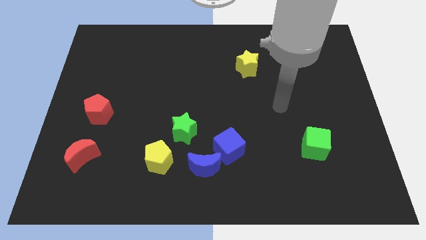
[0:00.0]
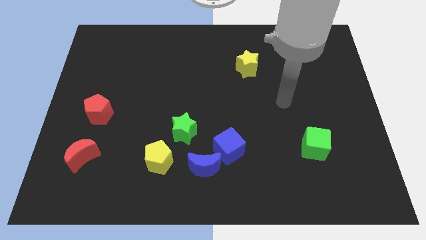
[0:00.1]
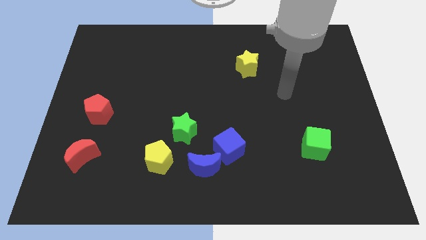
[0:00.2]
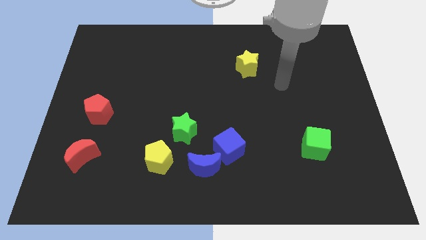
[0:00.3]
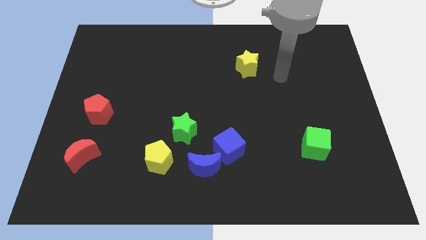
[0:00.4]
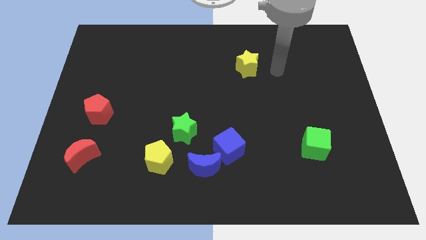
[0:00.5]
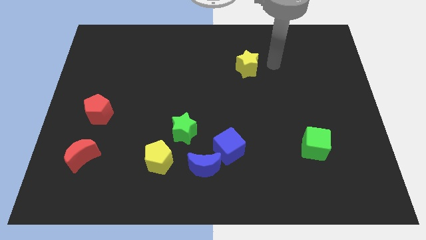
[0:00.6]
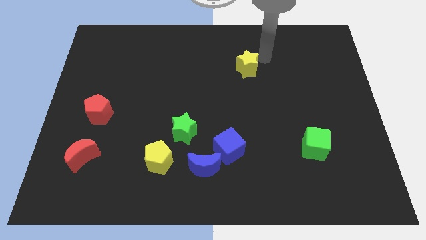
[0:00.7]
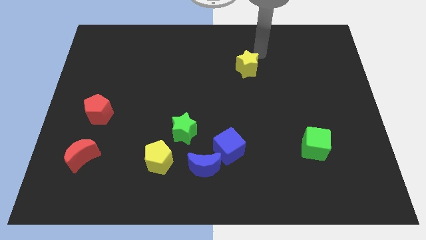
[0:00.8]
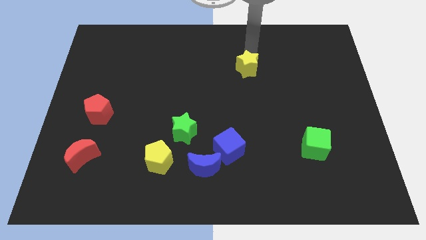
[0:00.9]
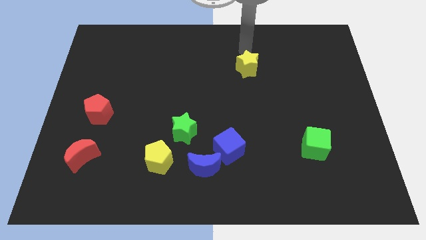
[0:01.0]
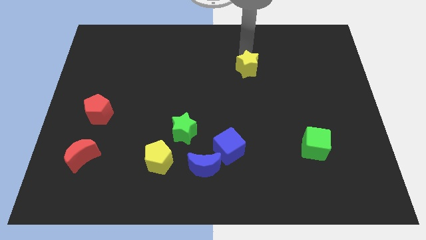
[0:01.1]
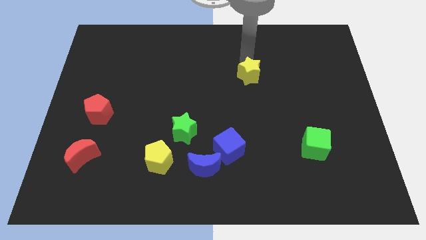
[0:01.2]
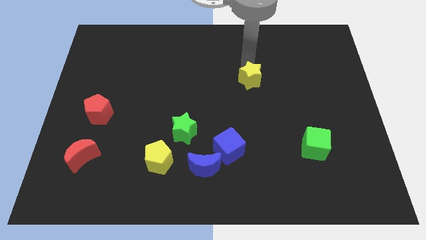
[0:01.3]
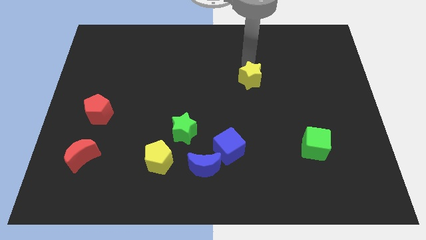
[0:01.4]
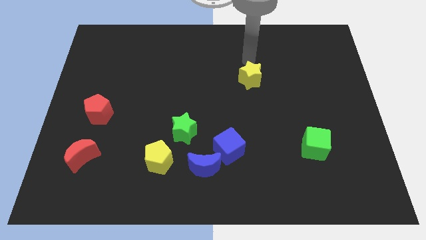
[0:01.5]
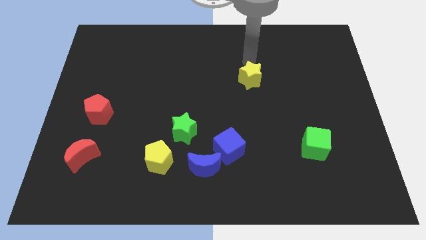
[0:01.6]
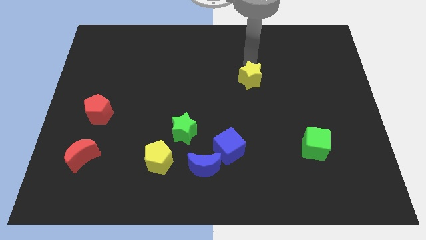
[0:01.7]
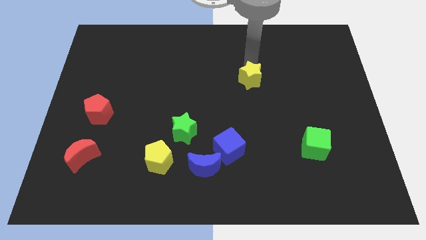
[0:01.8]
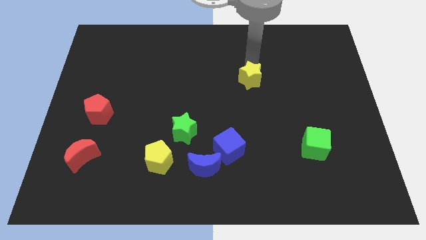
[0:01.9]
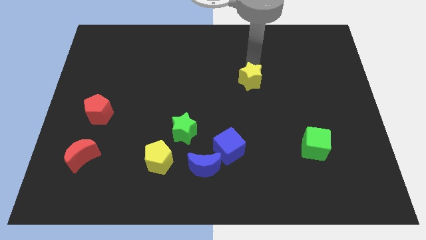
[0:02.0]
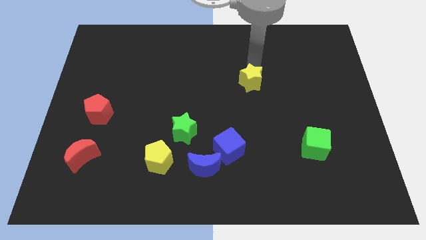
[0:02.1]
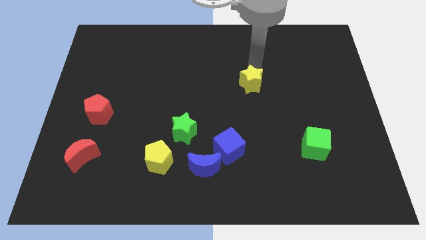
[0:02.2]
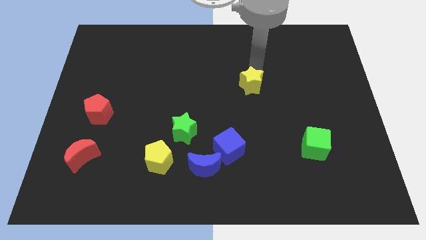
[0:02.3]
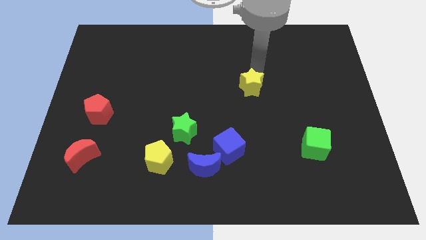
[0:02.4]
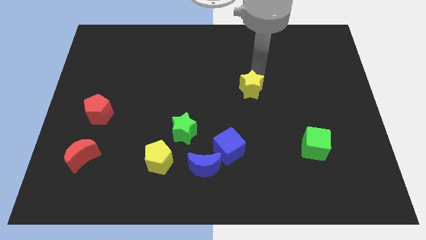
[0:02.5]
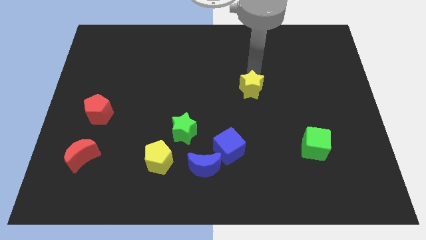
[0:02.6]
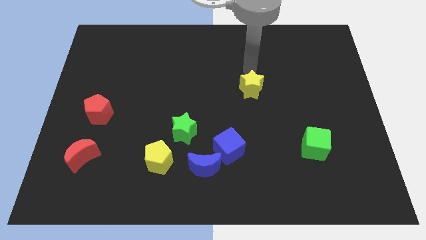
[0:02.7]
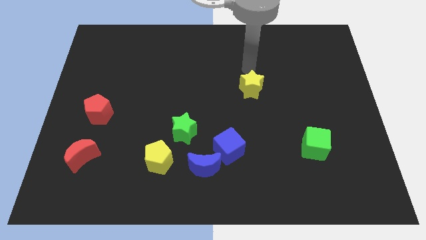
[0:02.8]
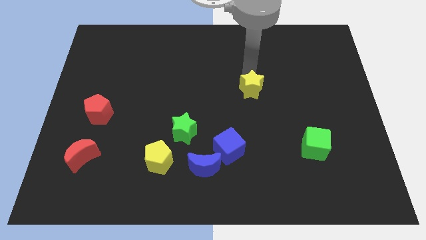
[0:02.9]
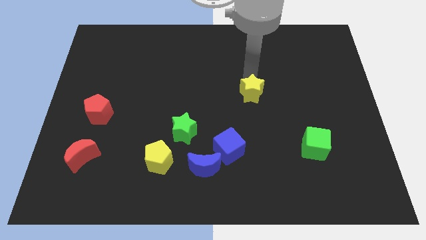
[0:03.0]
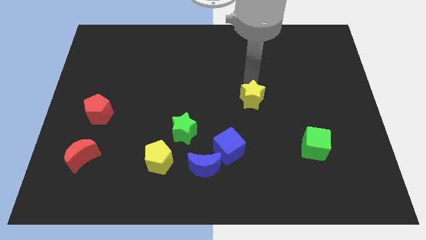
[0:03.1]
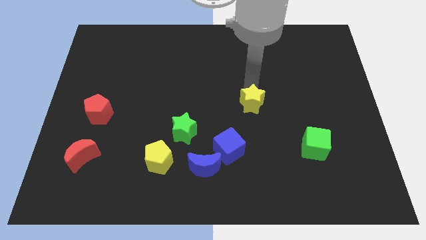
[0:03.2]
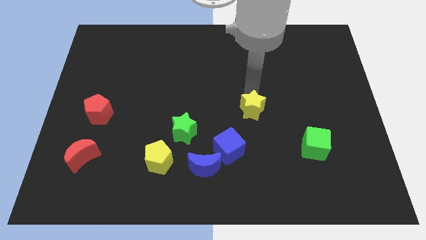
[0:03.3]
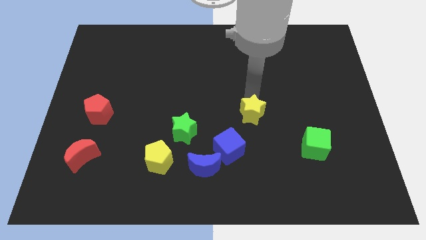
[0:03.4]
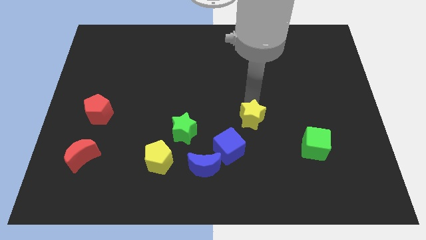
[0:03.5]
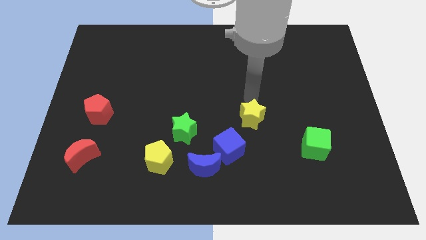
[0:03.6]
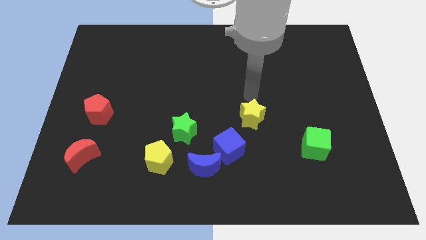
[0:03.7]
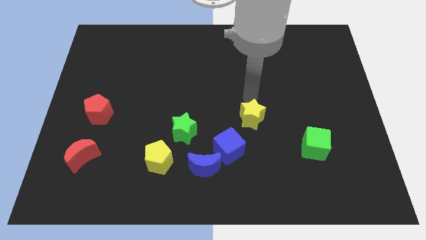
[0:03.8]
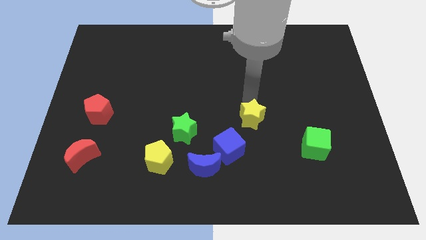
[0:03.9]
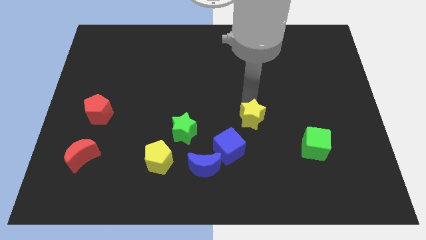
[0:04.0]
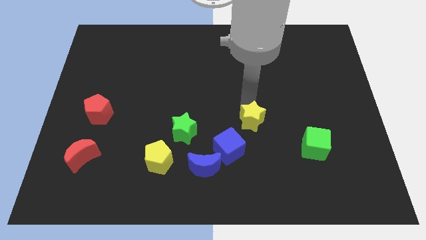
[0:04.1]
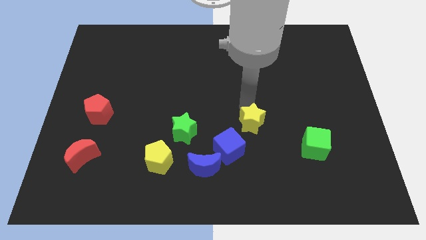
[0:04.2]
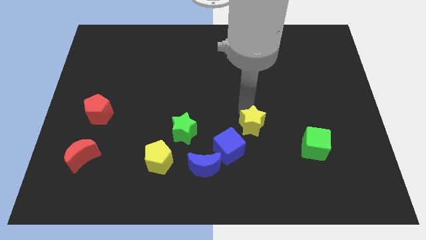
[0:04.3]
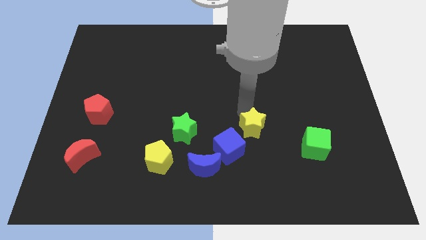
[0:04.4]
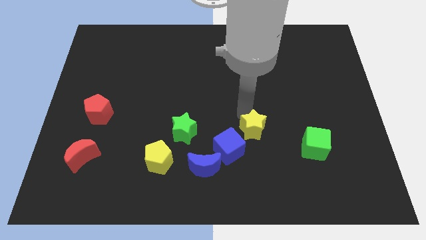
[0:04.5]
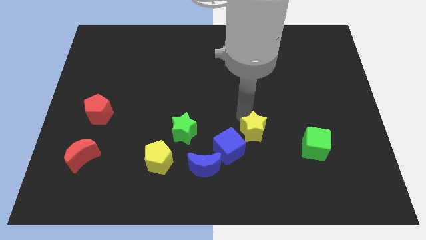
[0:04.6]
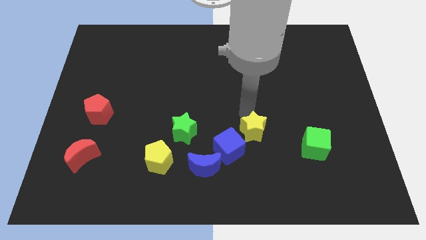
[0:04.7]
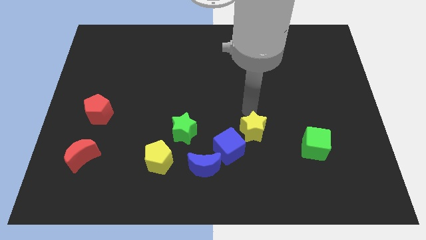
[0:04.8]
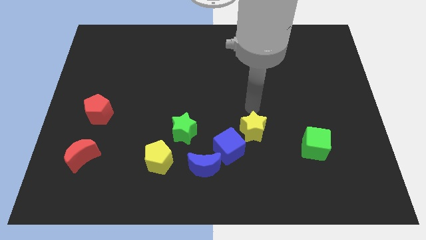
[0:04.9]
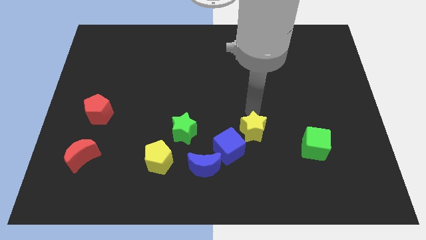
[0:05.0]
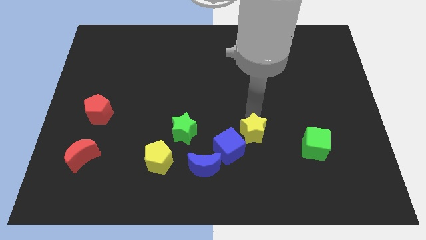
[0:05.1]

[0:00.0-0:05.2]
move the yellow star down

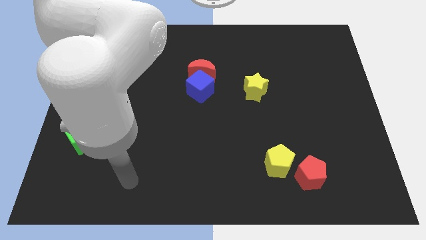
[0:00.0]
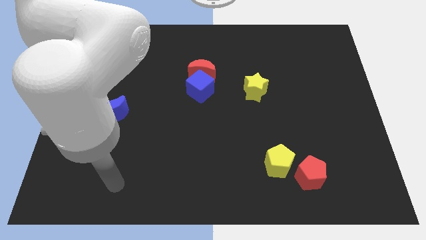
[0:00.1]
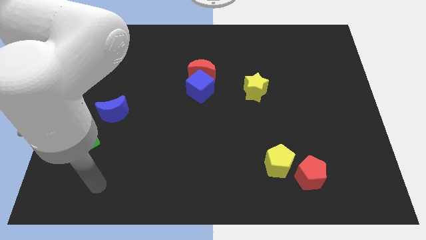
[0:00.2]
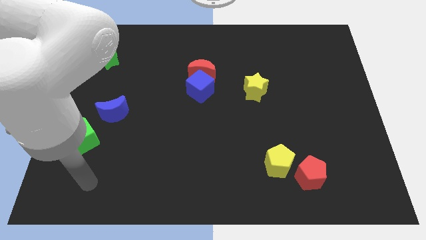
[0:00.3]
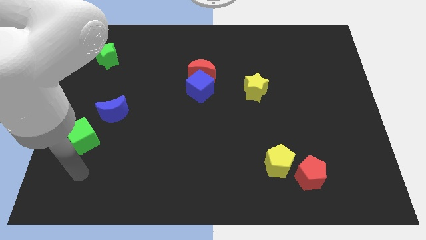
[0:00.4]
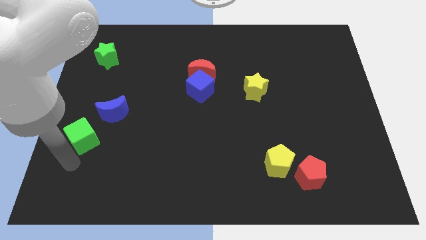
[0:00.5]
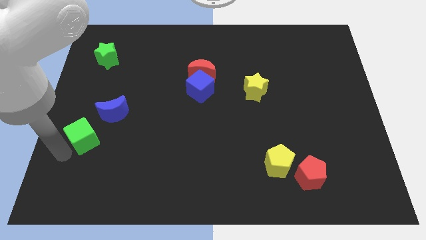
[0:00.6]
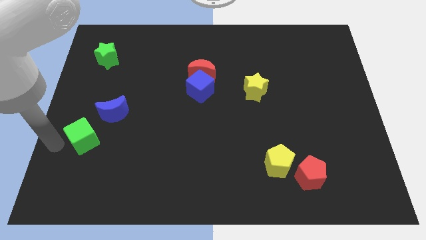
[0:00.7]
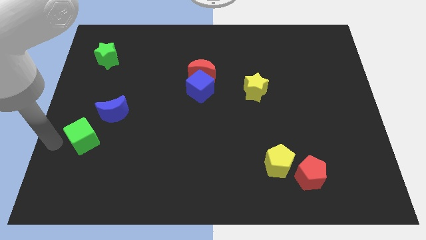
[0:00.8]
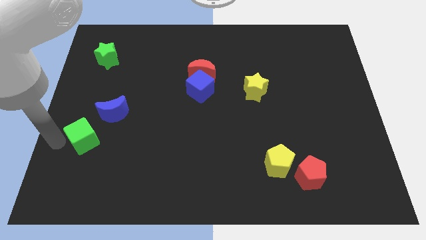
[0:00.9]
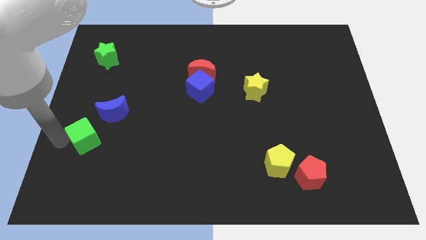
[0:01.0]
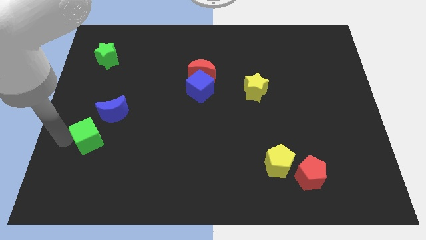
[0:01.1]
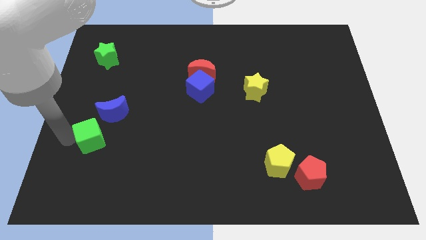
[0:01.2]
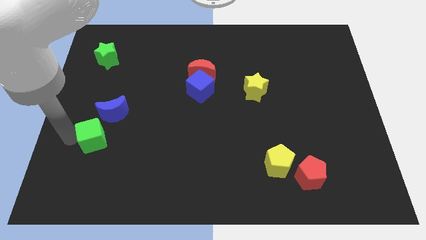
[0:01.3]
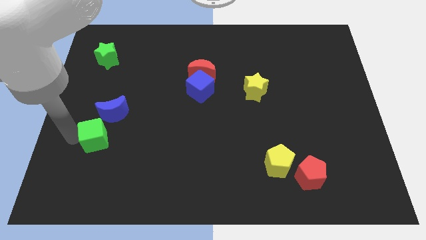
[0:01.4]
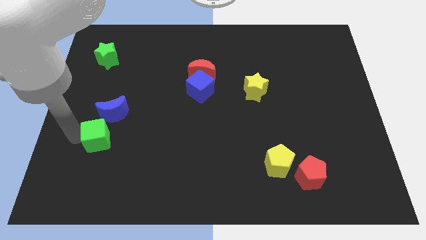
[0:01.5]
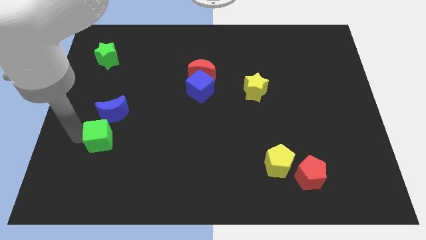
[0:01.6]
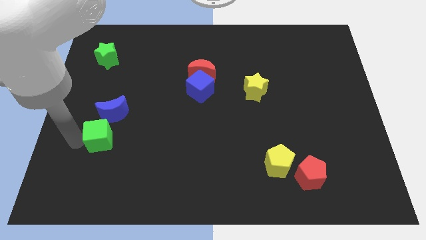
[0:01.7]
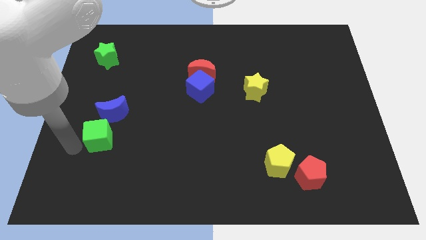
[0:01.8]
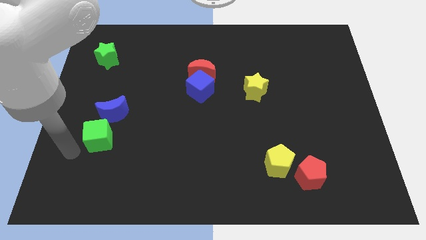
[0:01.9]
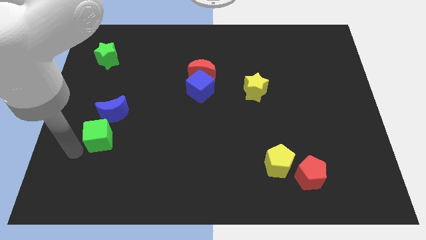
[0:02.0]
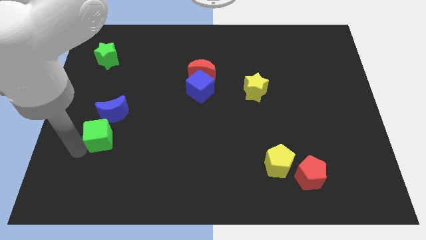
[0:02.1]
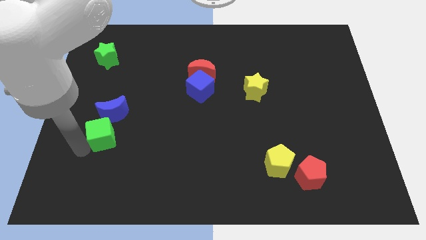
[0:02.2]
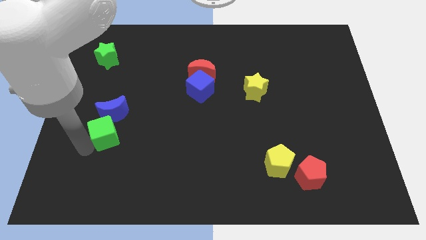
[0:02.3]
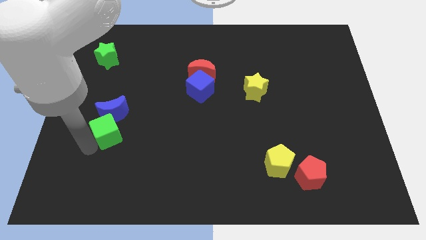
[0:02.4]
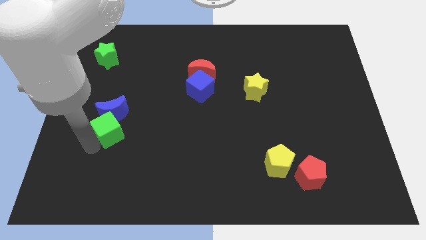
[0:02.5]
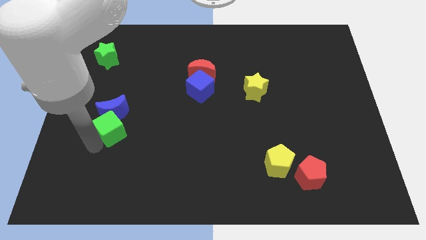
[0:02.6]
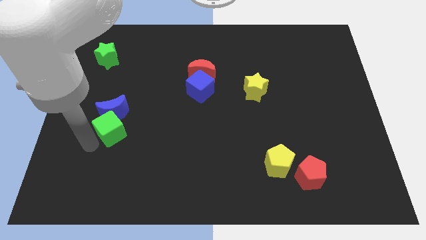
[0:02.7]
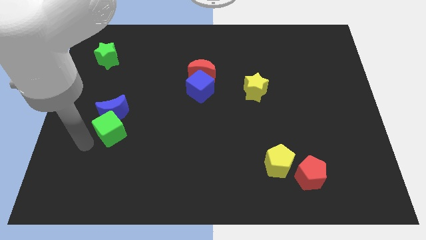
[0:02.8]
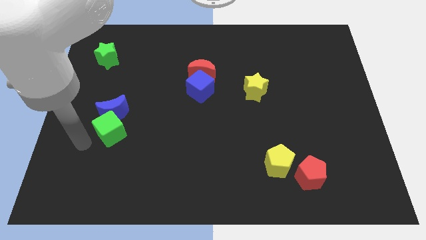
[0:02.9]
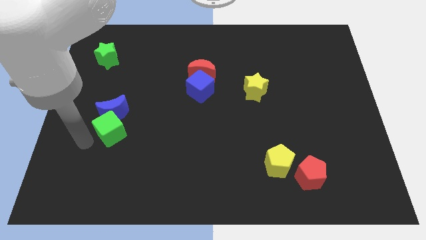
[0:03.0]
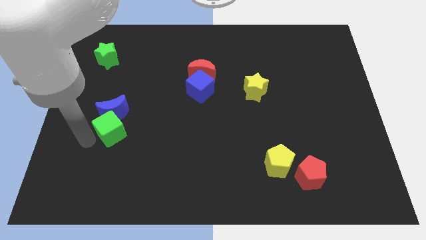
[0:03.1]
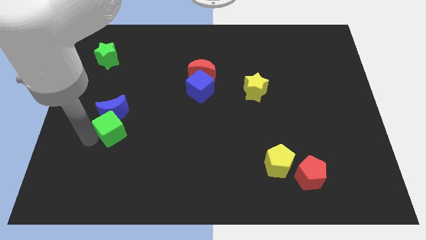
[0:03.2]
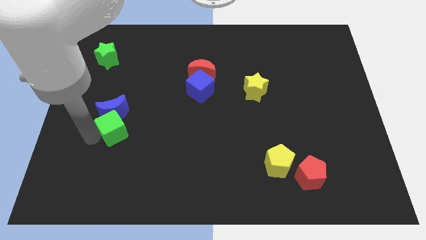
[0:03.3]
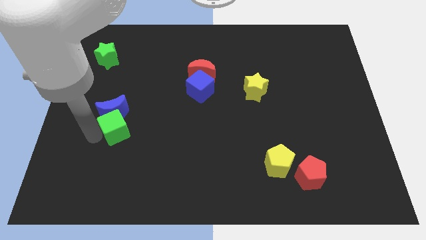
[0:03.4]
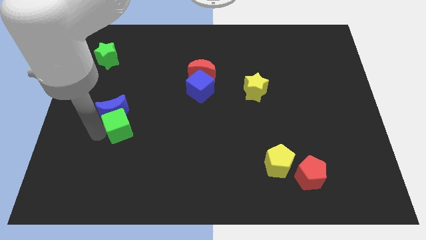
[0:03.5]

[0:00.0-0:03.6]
move the green cube a little bit upwards and right

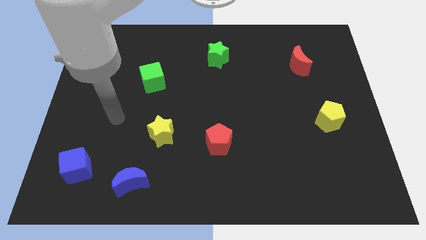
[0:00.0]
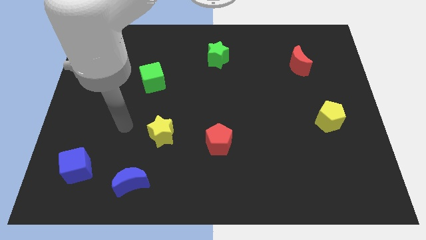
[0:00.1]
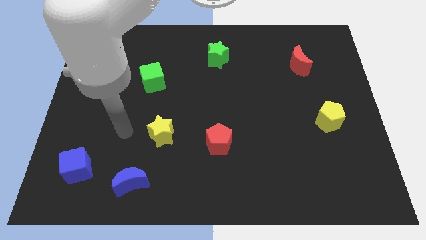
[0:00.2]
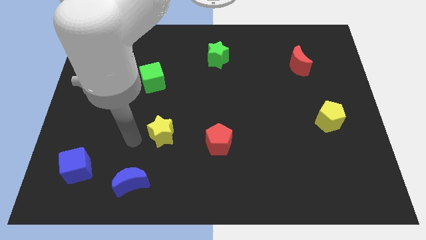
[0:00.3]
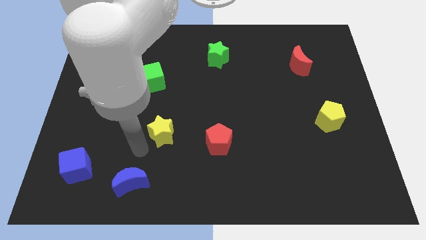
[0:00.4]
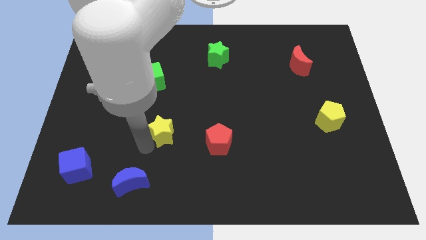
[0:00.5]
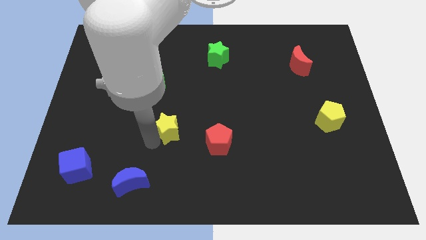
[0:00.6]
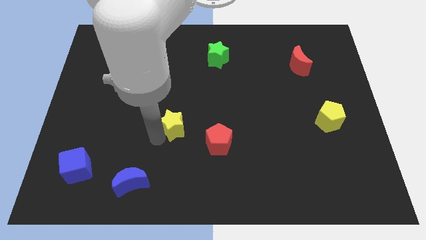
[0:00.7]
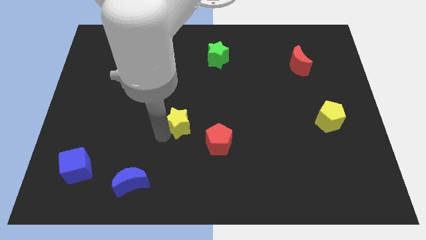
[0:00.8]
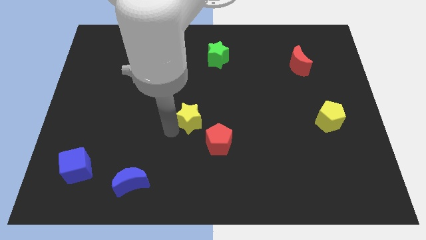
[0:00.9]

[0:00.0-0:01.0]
slightly move the yellow star upwards and then right
